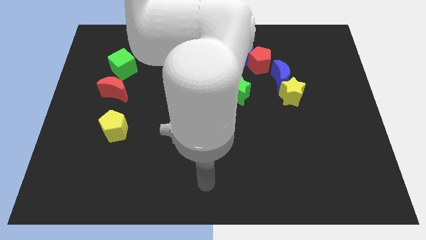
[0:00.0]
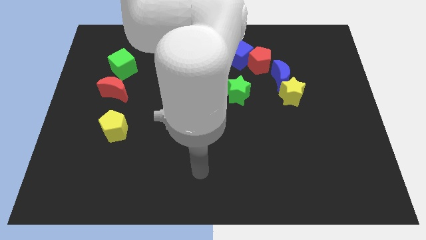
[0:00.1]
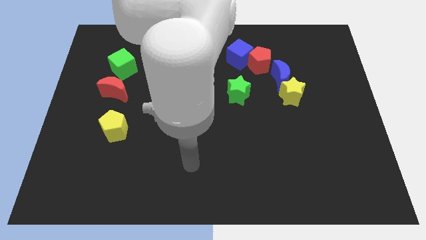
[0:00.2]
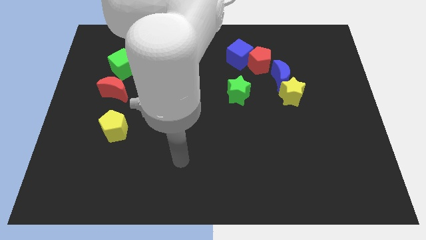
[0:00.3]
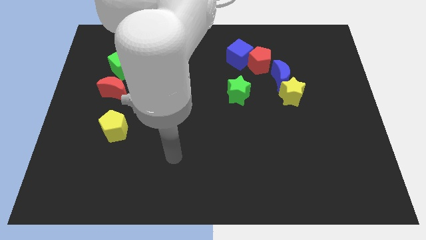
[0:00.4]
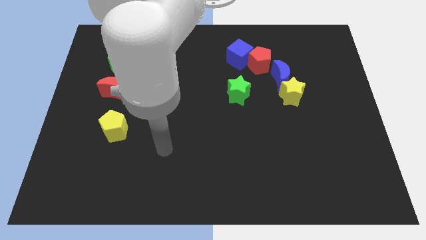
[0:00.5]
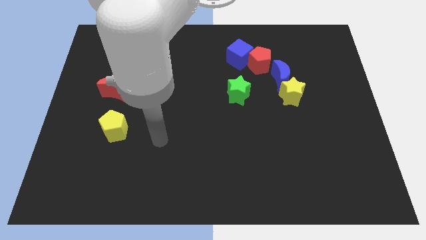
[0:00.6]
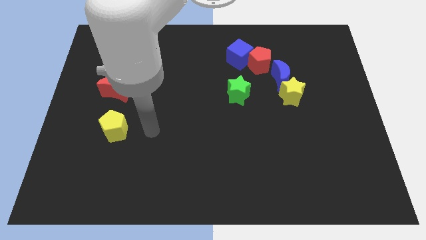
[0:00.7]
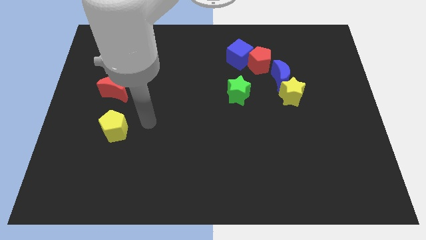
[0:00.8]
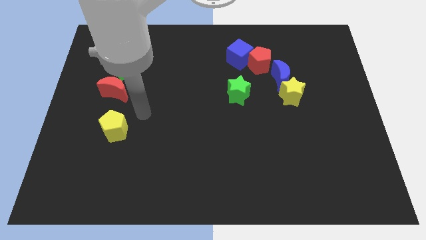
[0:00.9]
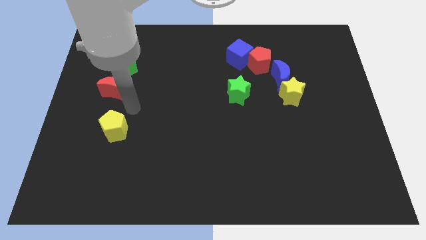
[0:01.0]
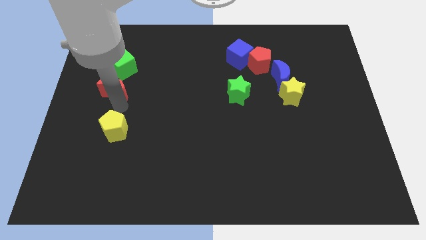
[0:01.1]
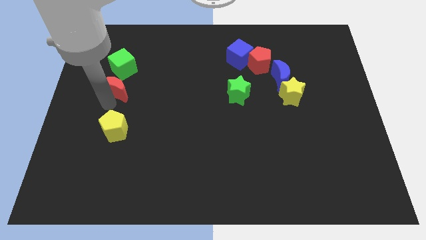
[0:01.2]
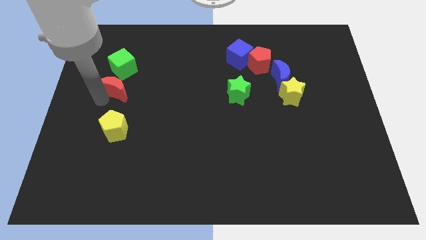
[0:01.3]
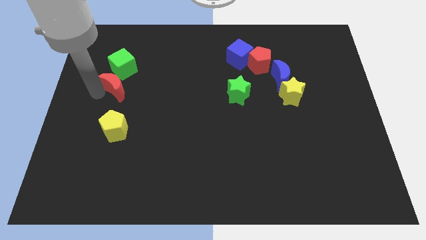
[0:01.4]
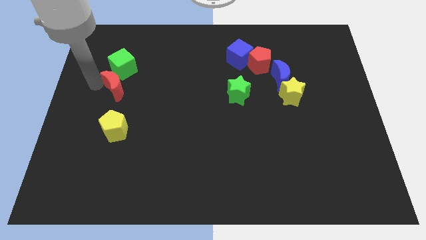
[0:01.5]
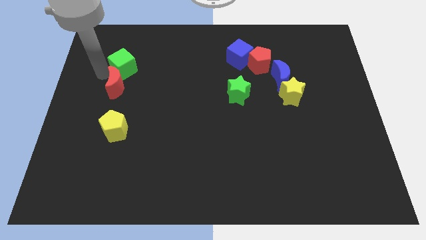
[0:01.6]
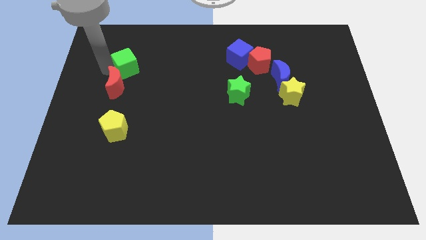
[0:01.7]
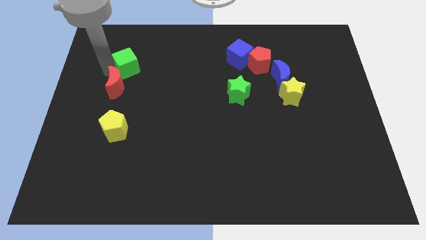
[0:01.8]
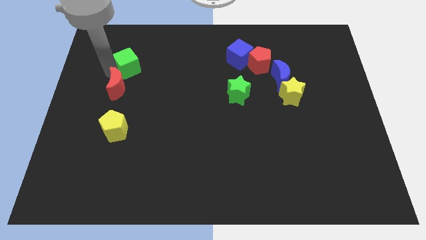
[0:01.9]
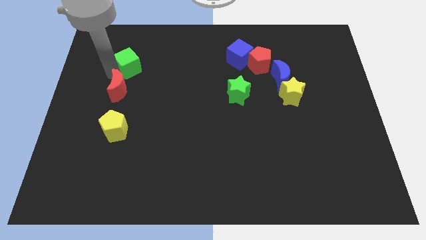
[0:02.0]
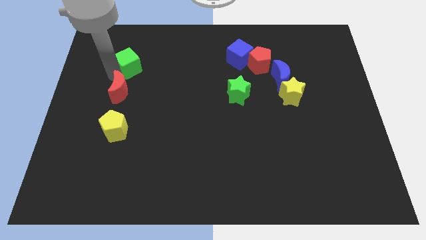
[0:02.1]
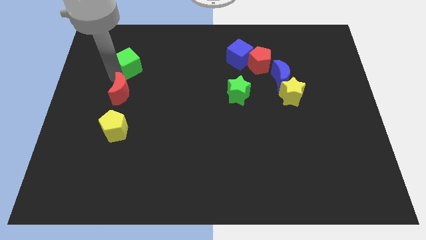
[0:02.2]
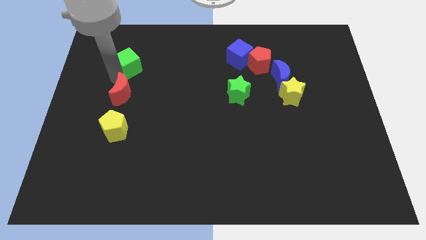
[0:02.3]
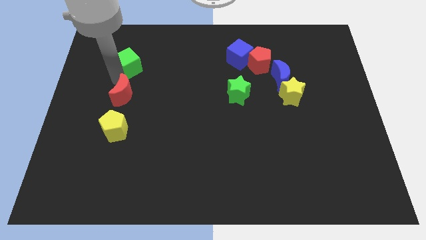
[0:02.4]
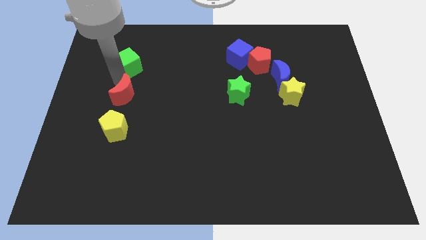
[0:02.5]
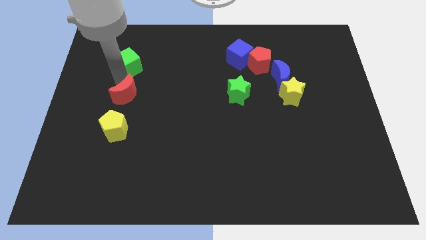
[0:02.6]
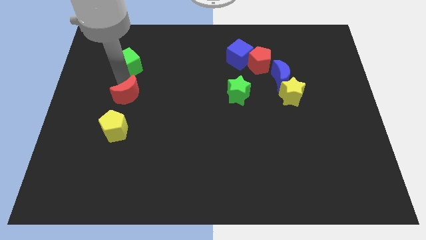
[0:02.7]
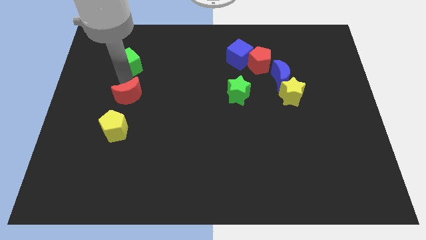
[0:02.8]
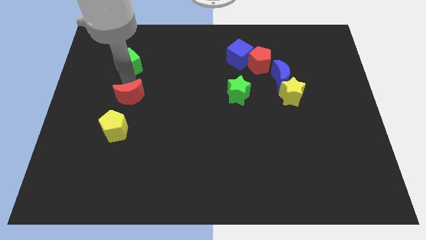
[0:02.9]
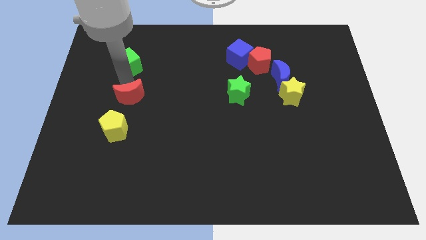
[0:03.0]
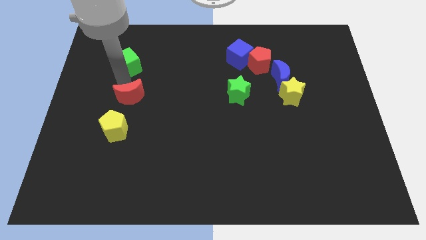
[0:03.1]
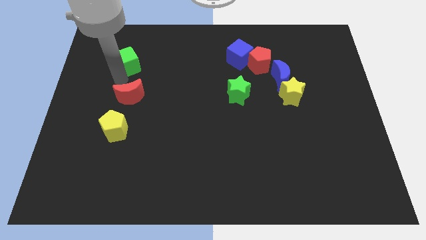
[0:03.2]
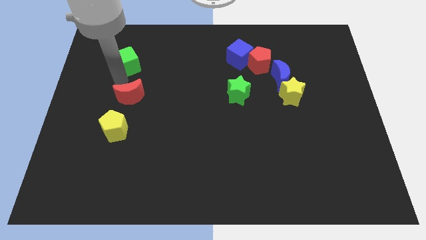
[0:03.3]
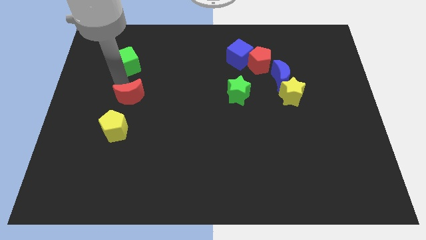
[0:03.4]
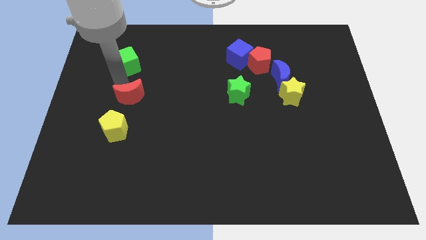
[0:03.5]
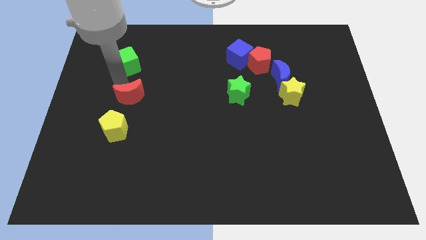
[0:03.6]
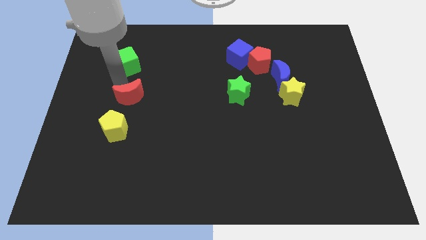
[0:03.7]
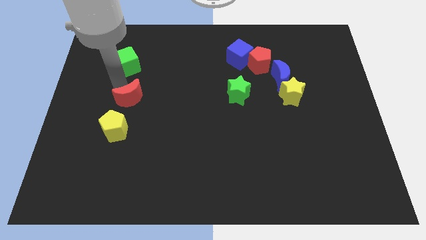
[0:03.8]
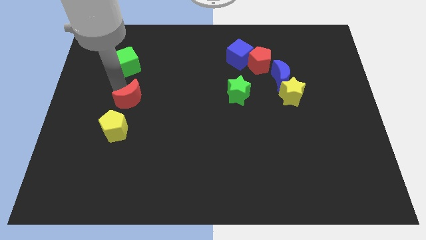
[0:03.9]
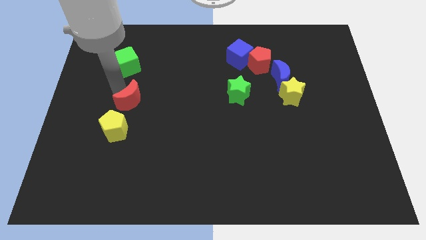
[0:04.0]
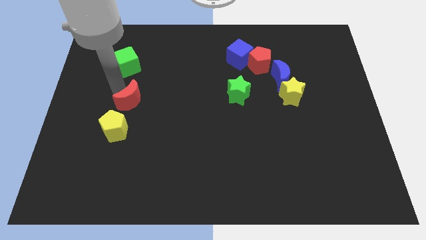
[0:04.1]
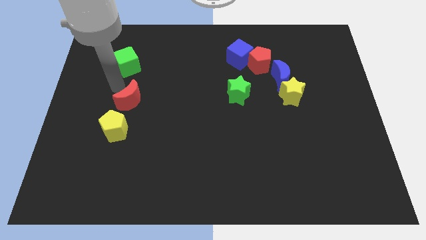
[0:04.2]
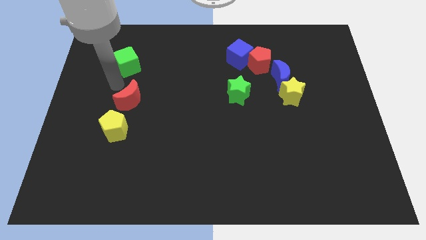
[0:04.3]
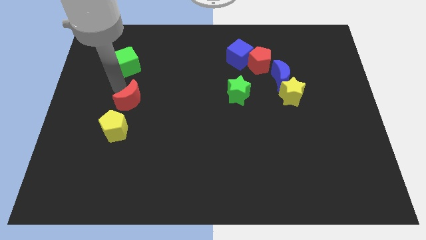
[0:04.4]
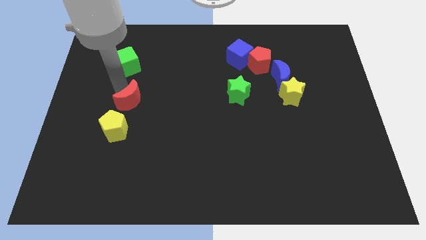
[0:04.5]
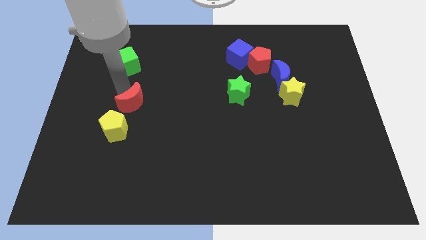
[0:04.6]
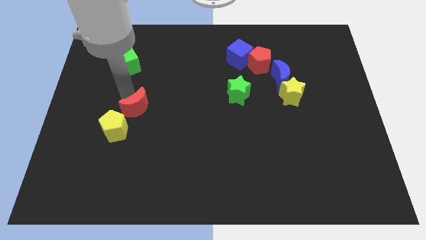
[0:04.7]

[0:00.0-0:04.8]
slightly move the red moon downwards and to the right diagonally

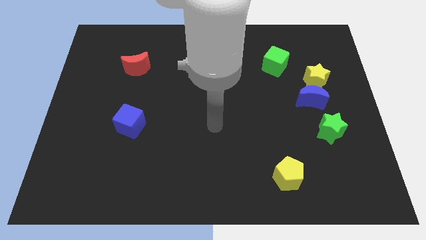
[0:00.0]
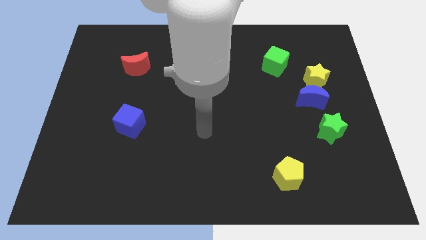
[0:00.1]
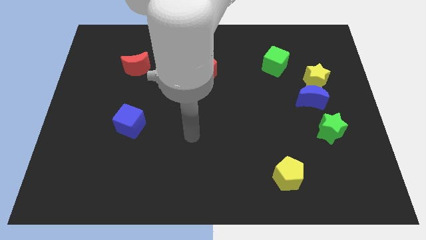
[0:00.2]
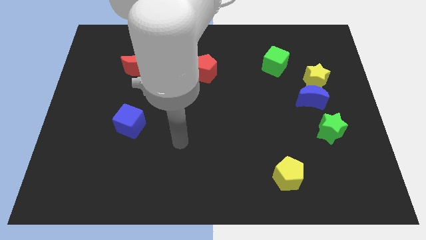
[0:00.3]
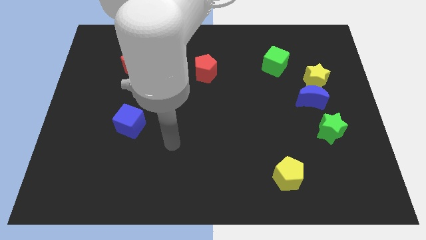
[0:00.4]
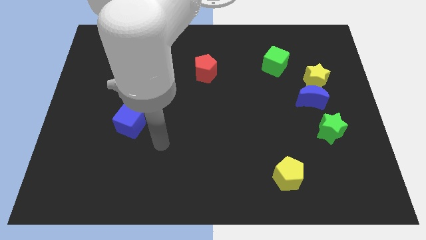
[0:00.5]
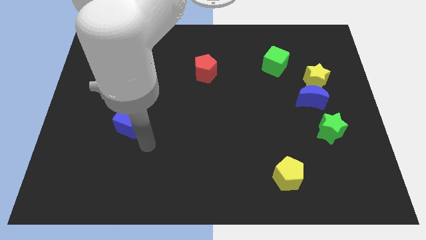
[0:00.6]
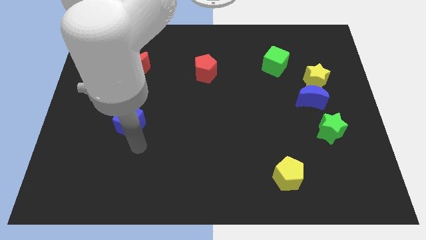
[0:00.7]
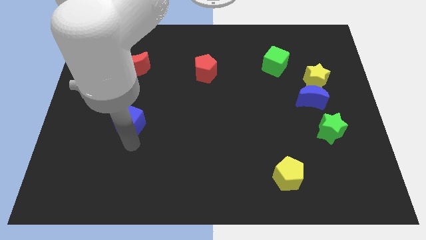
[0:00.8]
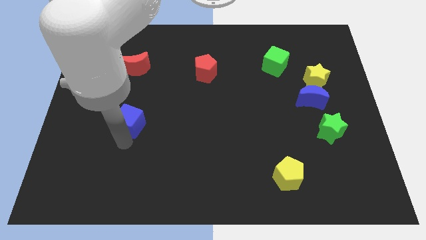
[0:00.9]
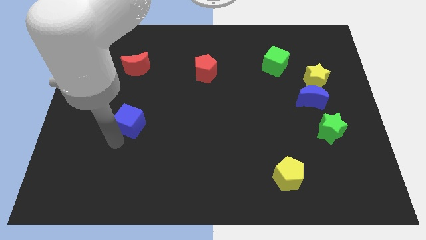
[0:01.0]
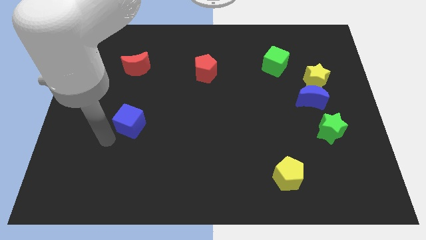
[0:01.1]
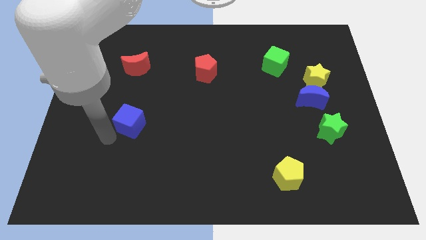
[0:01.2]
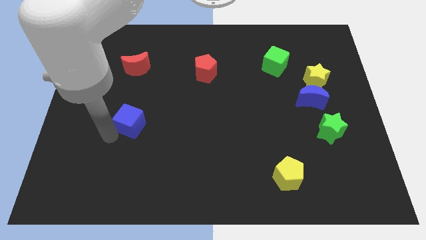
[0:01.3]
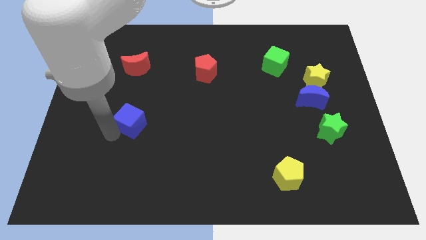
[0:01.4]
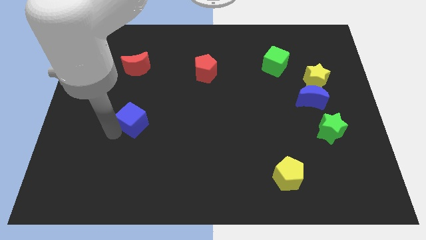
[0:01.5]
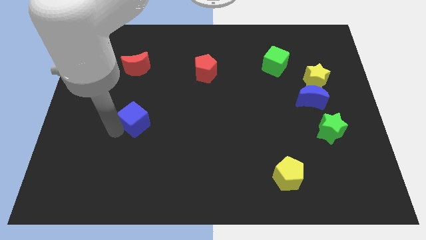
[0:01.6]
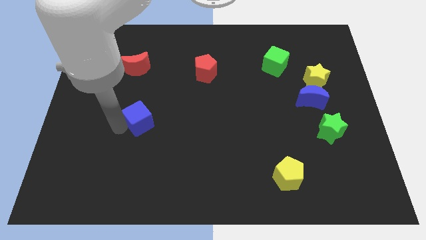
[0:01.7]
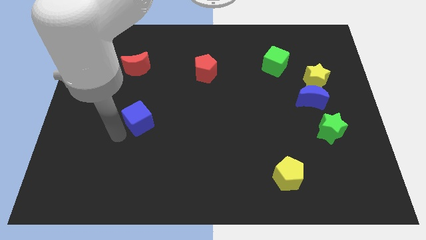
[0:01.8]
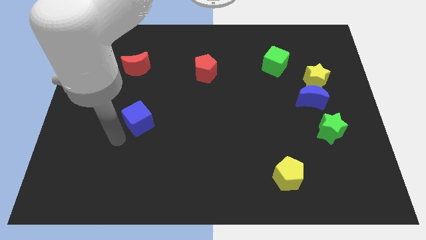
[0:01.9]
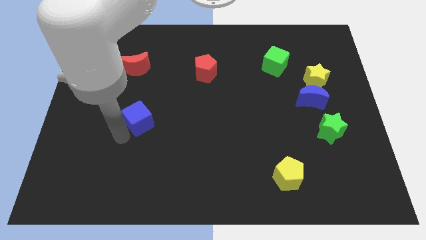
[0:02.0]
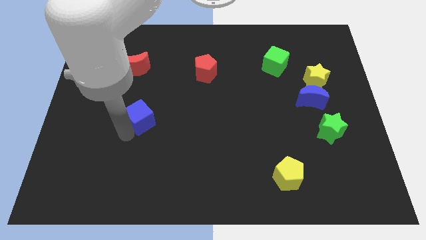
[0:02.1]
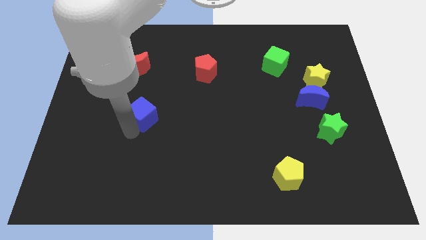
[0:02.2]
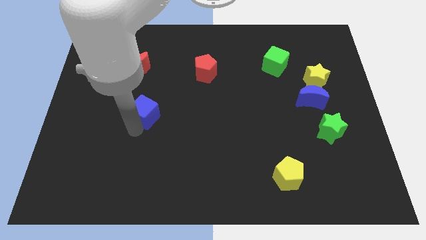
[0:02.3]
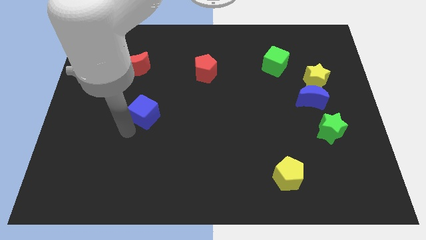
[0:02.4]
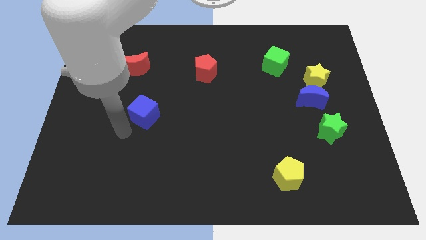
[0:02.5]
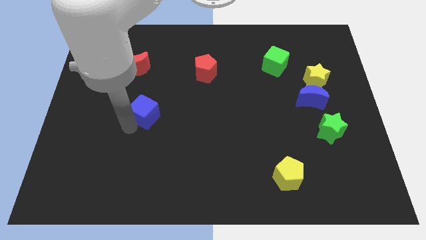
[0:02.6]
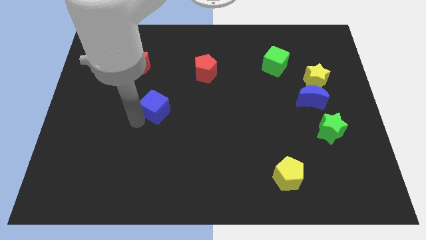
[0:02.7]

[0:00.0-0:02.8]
push the blue cube diagonally up and right a bit
